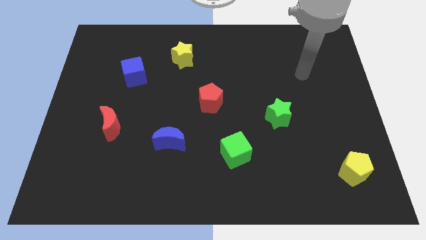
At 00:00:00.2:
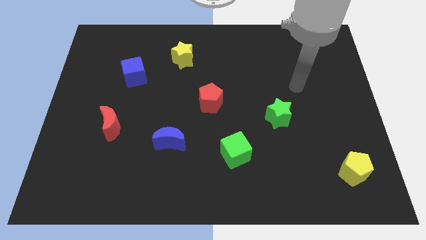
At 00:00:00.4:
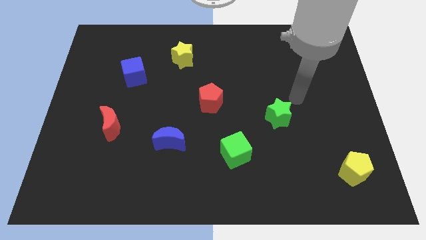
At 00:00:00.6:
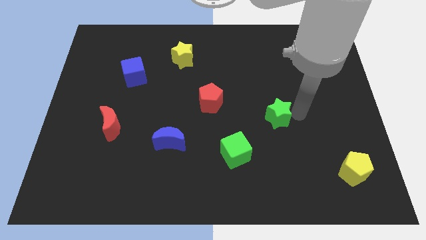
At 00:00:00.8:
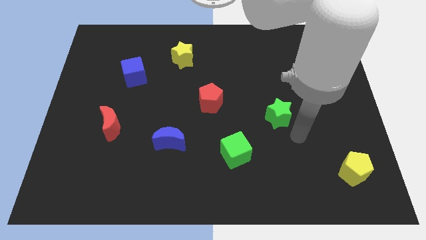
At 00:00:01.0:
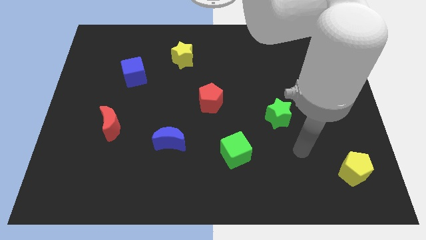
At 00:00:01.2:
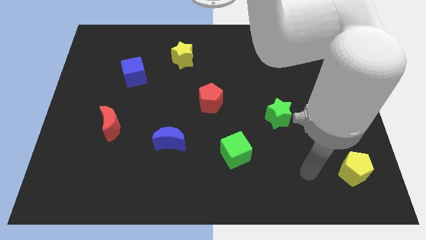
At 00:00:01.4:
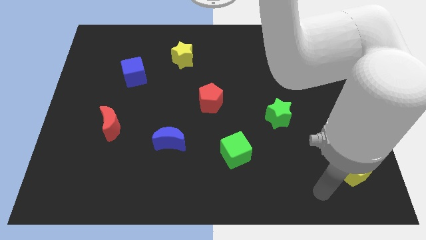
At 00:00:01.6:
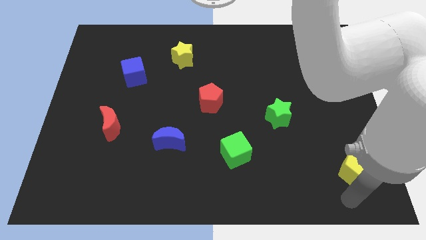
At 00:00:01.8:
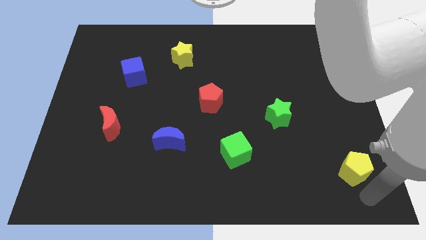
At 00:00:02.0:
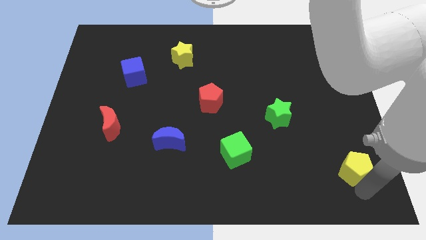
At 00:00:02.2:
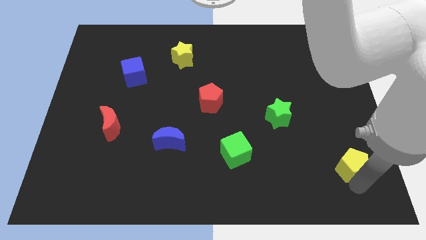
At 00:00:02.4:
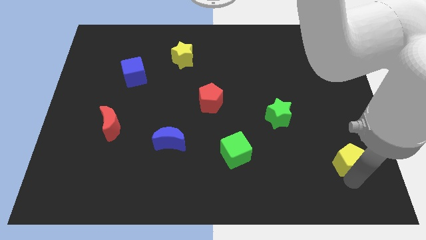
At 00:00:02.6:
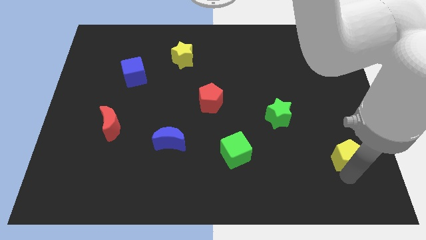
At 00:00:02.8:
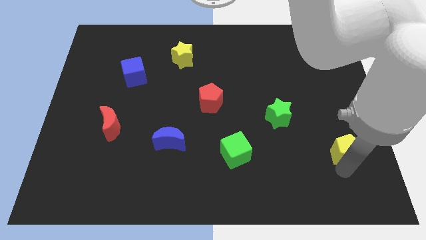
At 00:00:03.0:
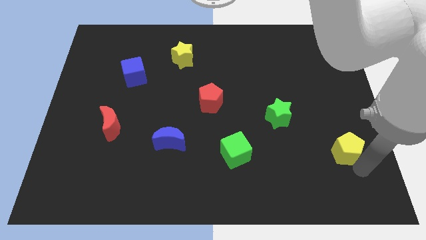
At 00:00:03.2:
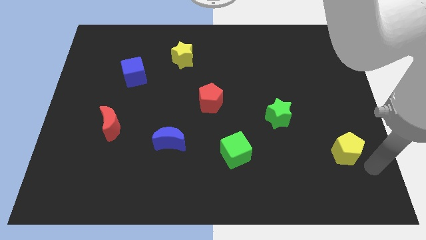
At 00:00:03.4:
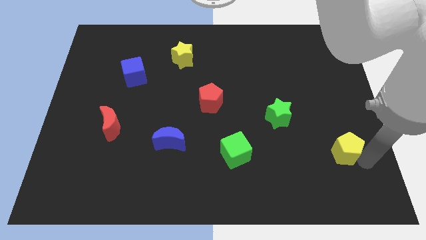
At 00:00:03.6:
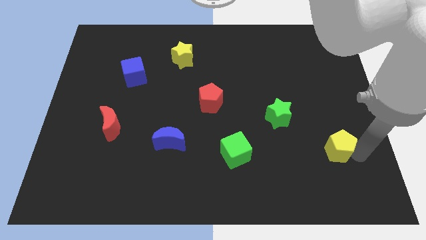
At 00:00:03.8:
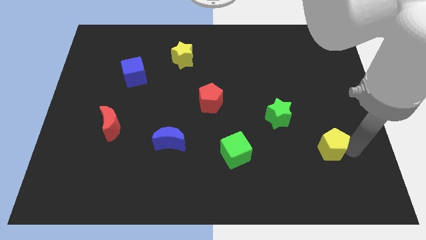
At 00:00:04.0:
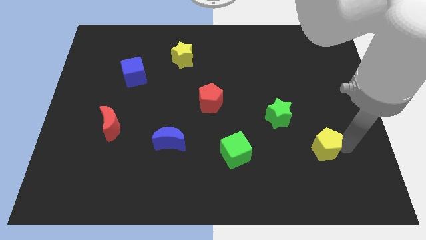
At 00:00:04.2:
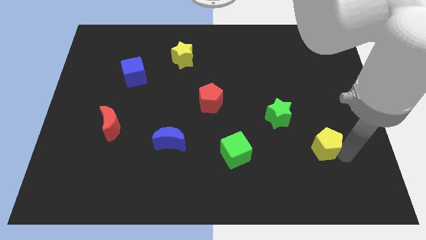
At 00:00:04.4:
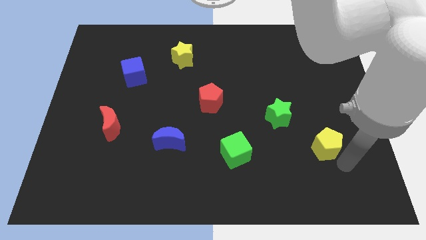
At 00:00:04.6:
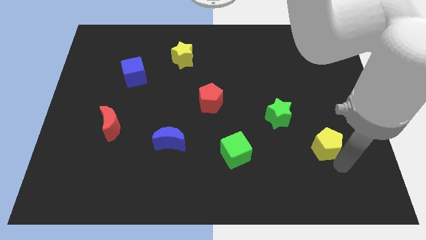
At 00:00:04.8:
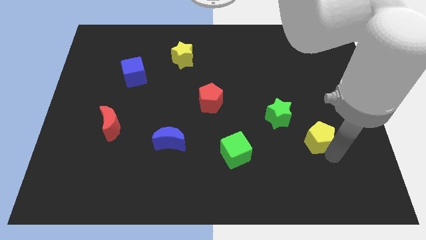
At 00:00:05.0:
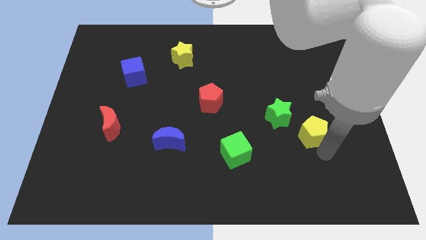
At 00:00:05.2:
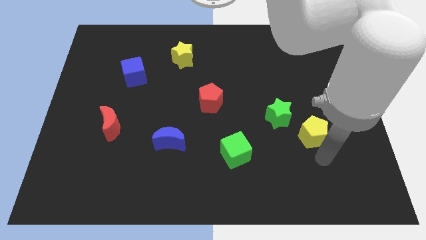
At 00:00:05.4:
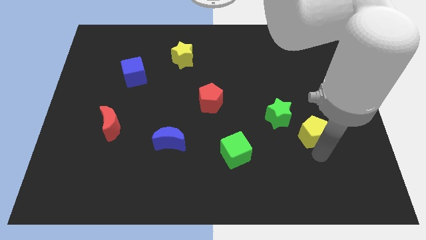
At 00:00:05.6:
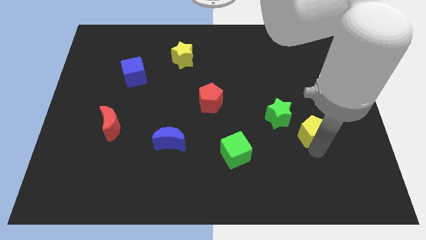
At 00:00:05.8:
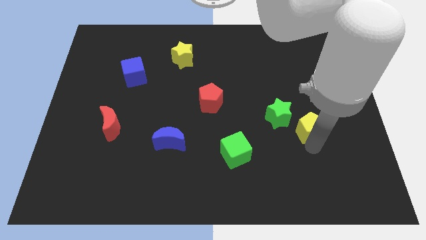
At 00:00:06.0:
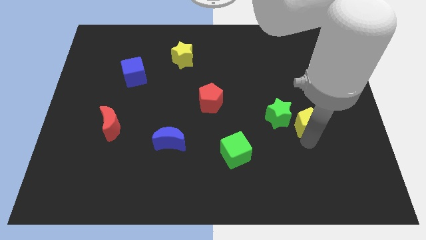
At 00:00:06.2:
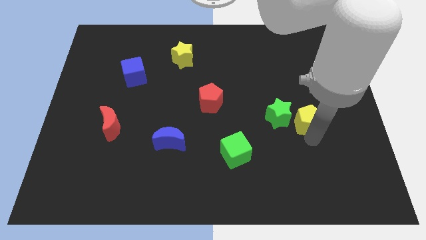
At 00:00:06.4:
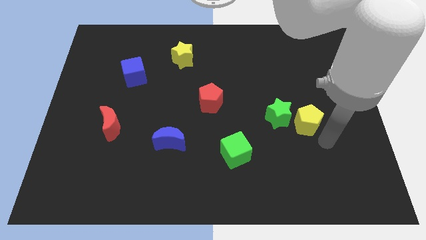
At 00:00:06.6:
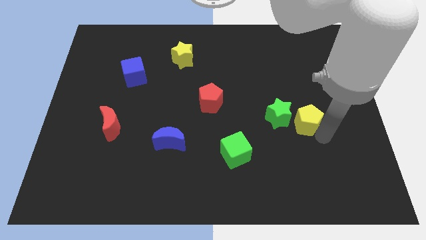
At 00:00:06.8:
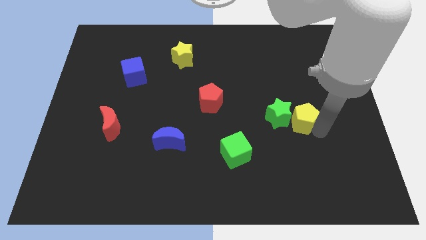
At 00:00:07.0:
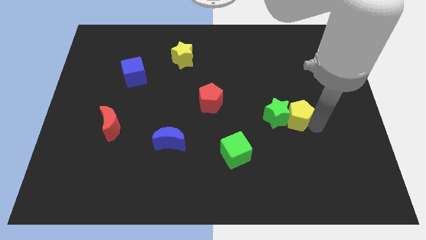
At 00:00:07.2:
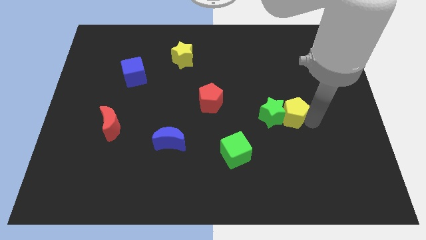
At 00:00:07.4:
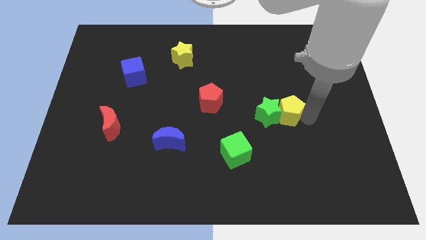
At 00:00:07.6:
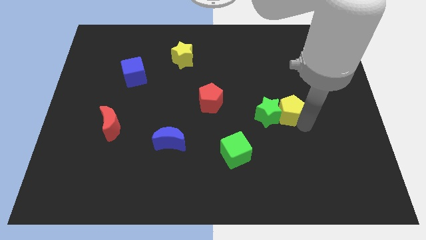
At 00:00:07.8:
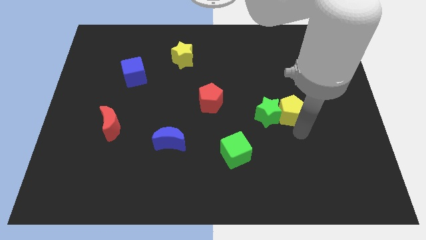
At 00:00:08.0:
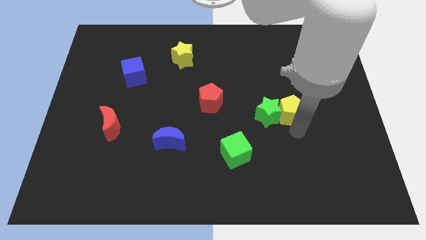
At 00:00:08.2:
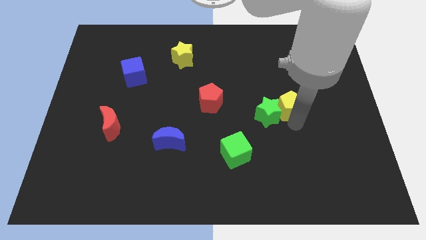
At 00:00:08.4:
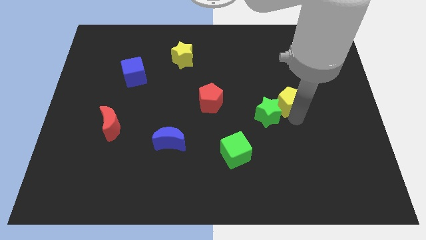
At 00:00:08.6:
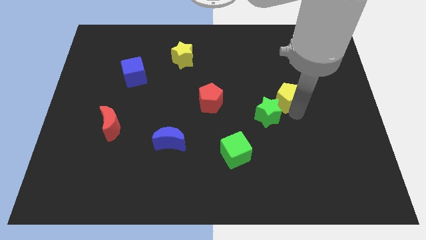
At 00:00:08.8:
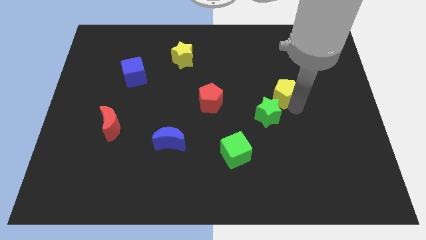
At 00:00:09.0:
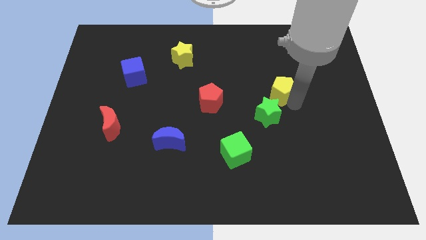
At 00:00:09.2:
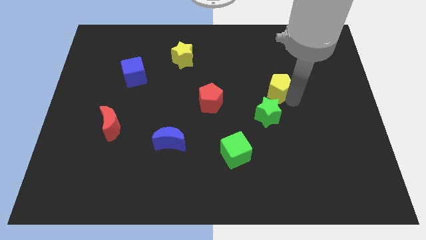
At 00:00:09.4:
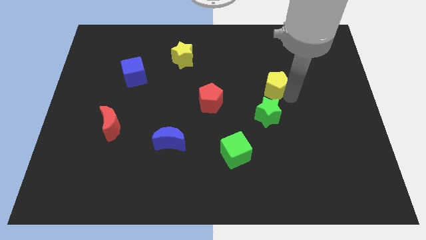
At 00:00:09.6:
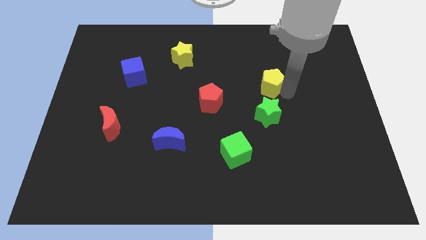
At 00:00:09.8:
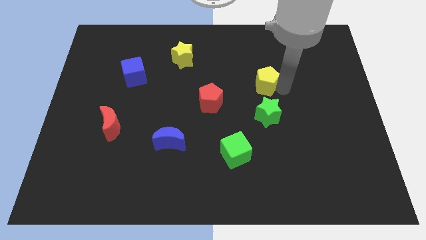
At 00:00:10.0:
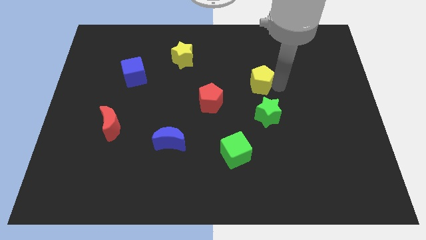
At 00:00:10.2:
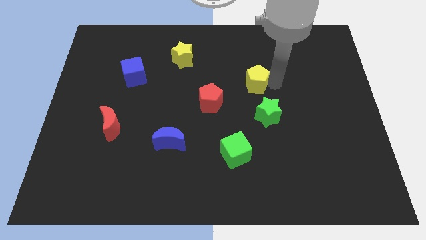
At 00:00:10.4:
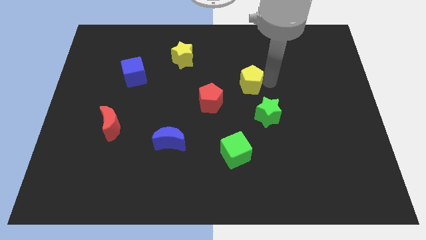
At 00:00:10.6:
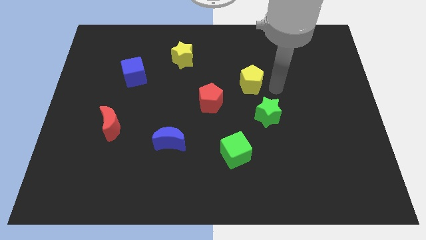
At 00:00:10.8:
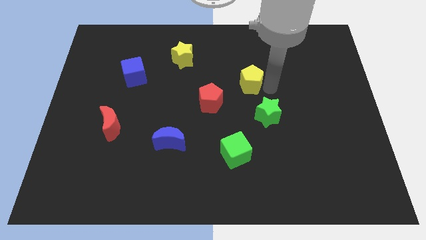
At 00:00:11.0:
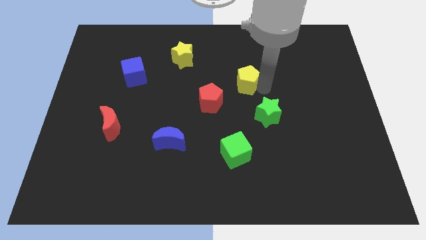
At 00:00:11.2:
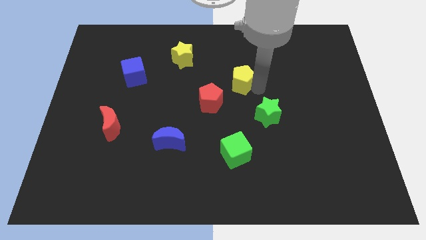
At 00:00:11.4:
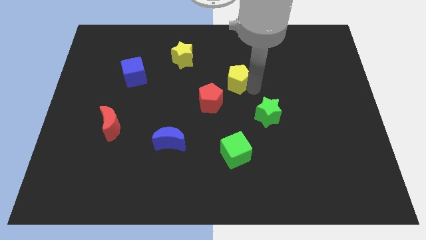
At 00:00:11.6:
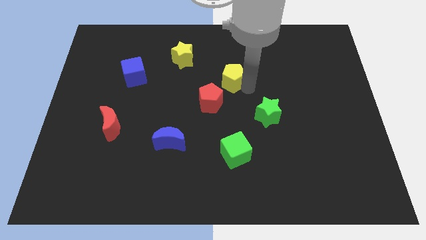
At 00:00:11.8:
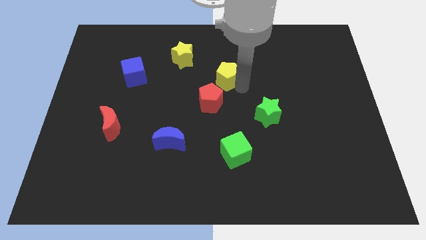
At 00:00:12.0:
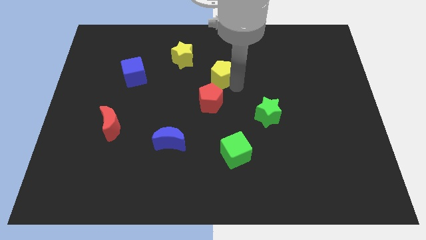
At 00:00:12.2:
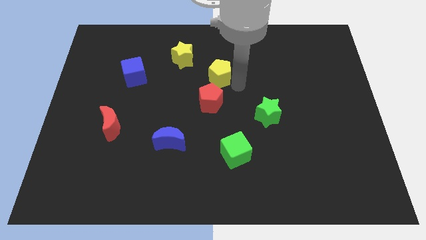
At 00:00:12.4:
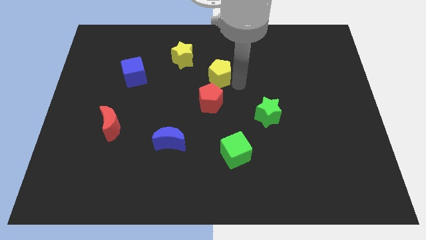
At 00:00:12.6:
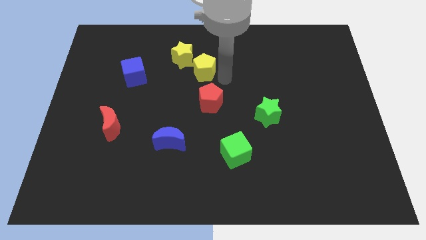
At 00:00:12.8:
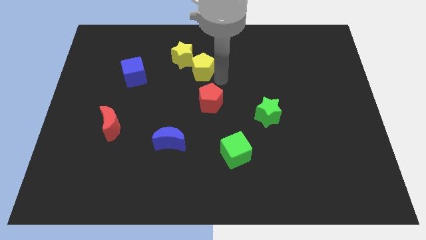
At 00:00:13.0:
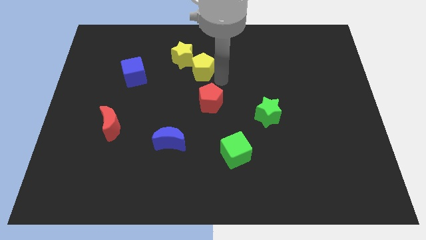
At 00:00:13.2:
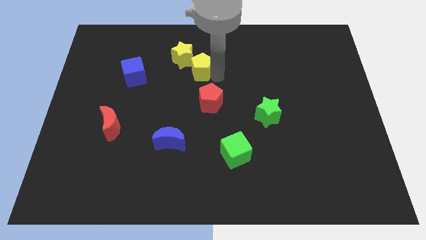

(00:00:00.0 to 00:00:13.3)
move the yellow pentagon next to the yellow star
